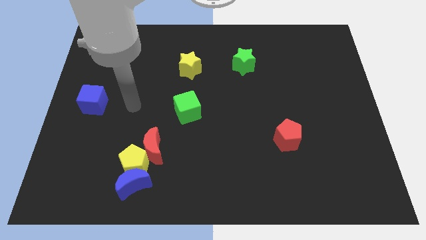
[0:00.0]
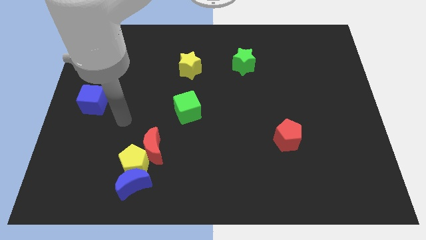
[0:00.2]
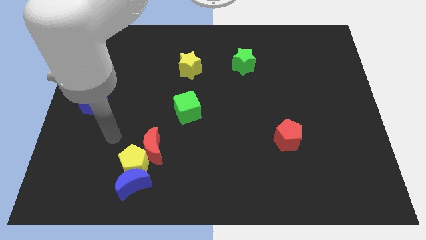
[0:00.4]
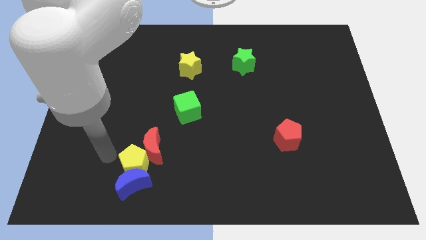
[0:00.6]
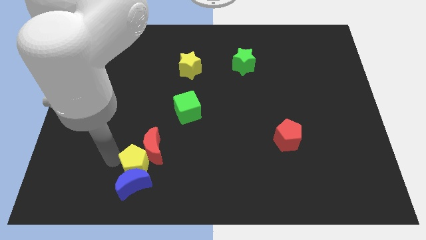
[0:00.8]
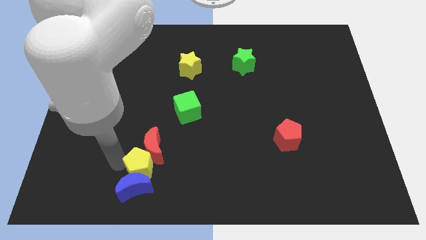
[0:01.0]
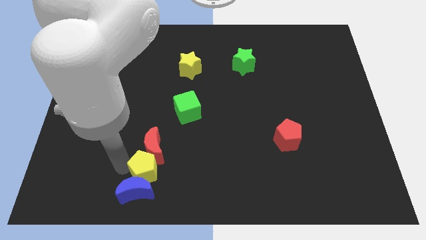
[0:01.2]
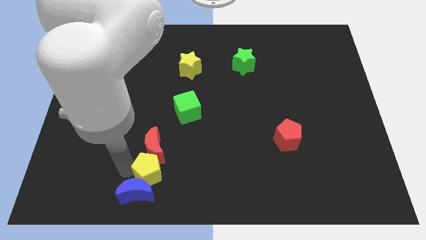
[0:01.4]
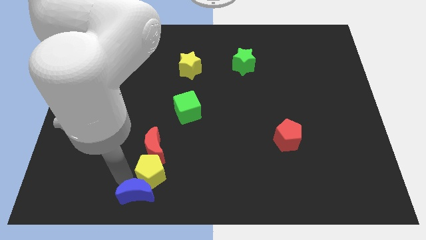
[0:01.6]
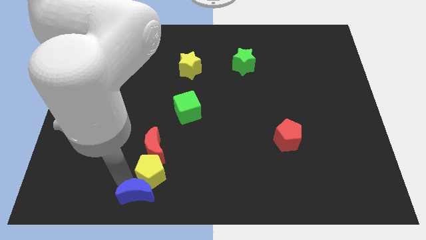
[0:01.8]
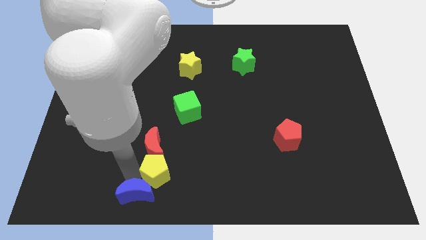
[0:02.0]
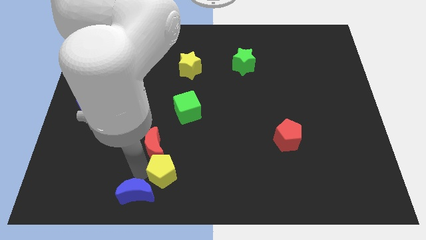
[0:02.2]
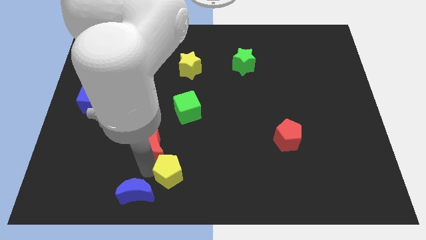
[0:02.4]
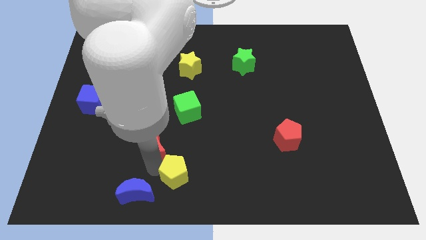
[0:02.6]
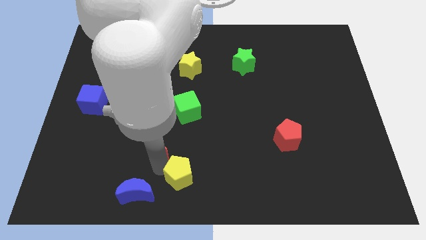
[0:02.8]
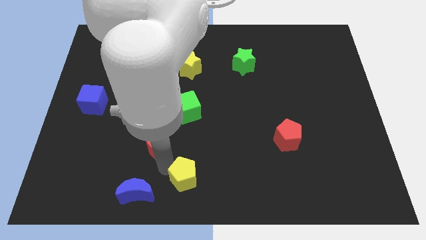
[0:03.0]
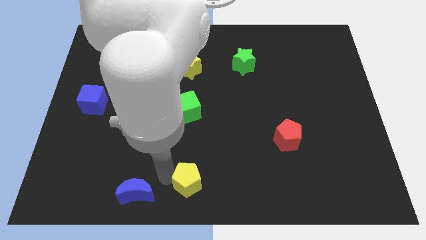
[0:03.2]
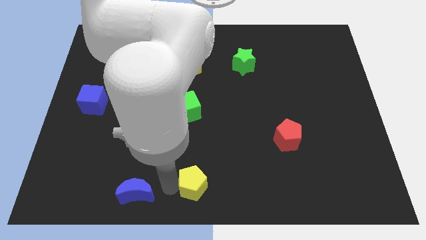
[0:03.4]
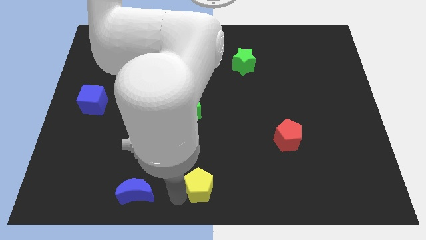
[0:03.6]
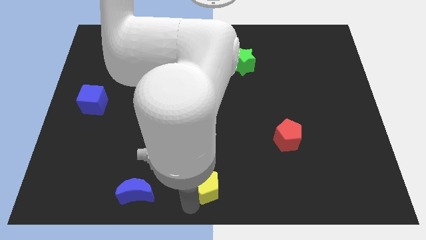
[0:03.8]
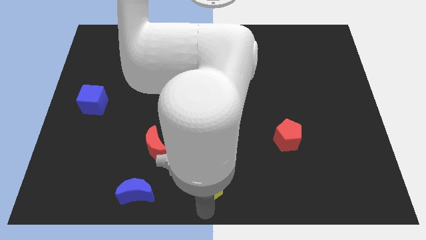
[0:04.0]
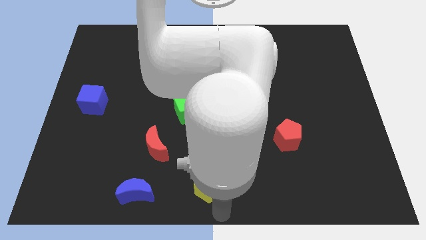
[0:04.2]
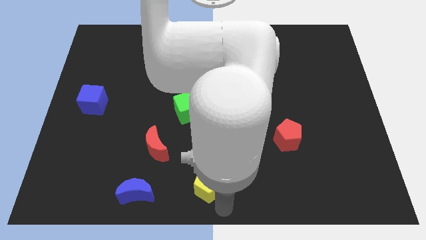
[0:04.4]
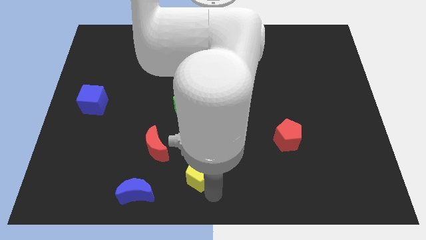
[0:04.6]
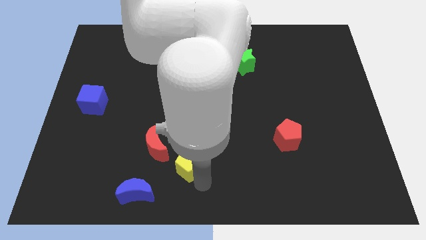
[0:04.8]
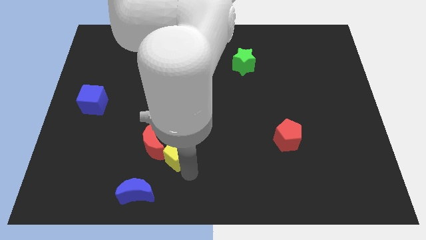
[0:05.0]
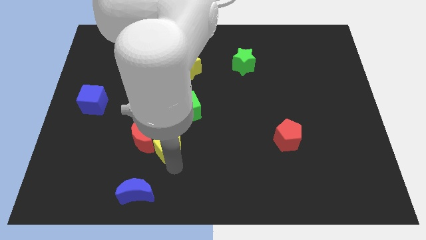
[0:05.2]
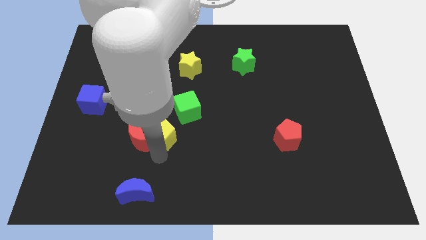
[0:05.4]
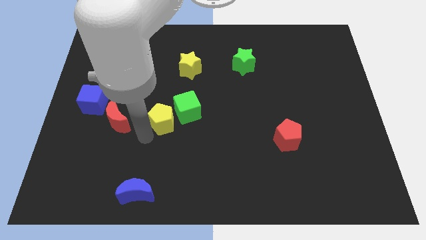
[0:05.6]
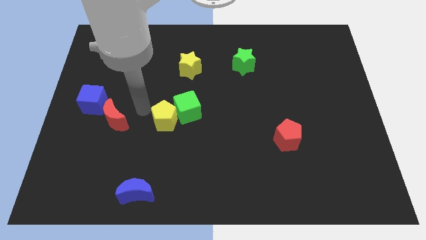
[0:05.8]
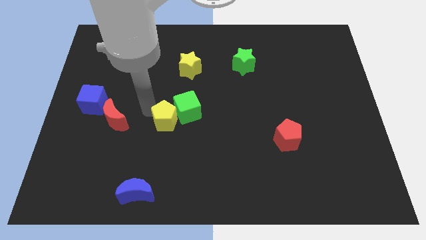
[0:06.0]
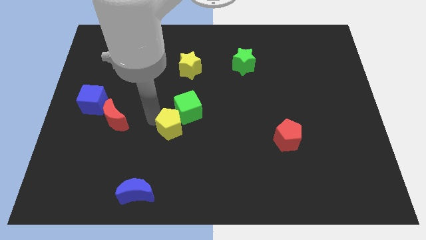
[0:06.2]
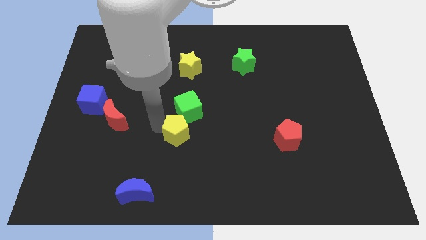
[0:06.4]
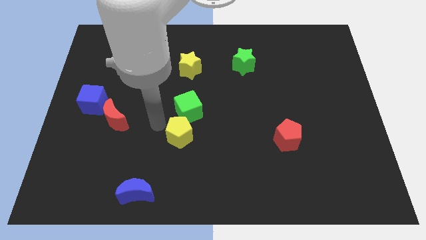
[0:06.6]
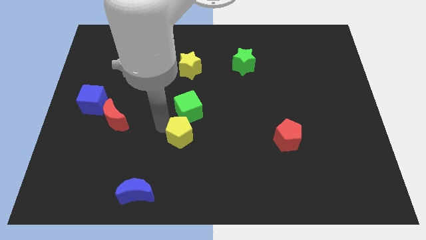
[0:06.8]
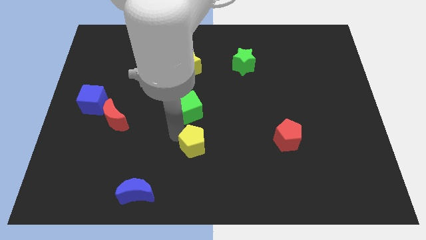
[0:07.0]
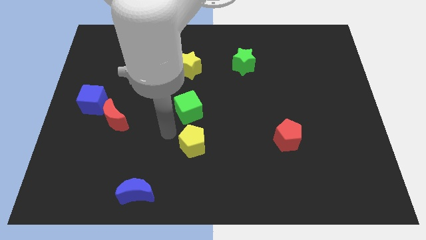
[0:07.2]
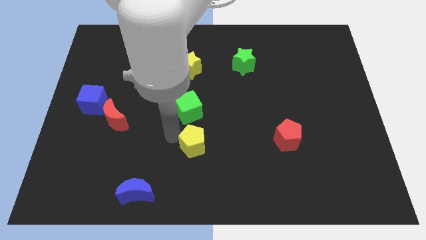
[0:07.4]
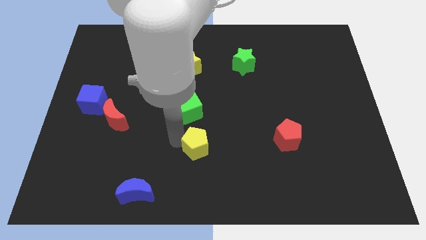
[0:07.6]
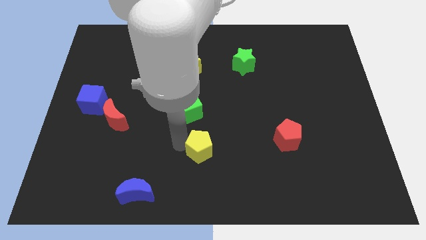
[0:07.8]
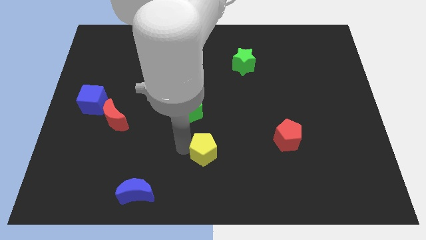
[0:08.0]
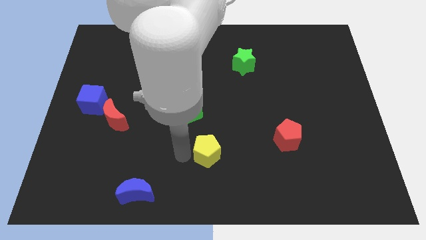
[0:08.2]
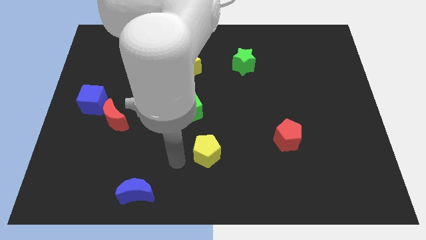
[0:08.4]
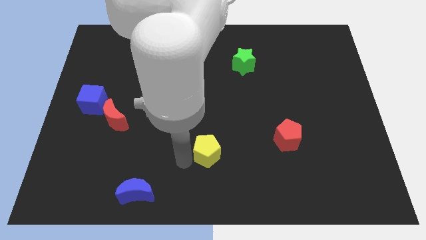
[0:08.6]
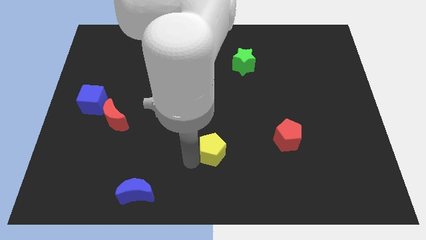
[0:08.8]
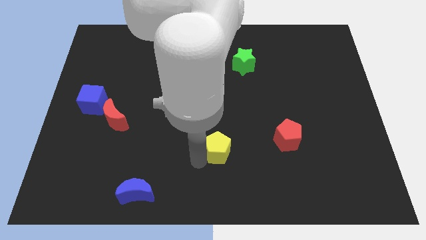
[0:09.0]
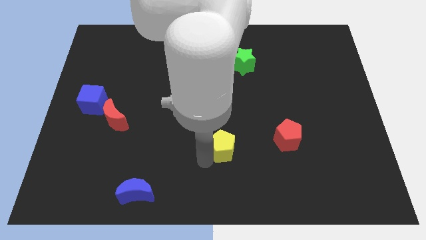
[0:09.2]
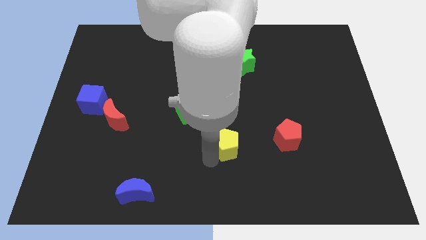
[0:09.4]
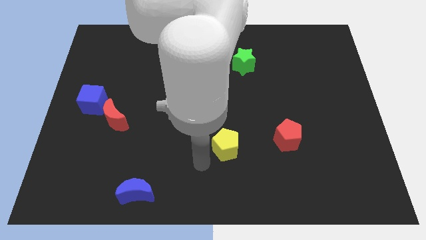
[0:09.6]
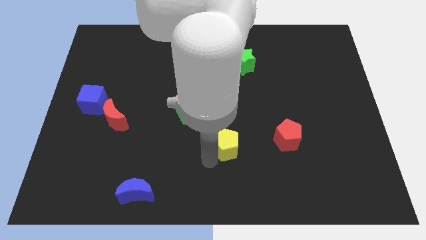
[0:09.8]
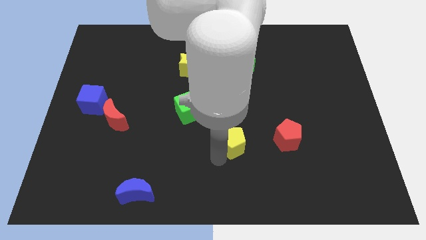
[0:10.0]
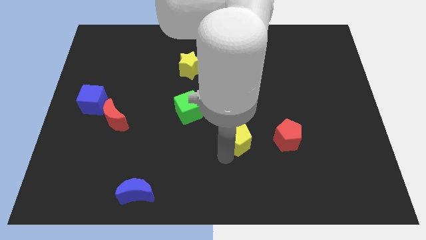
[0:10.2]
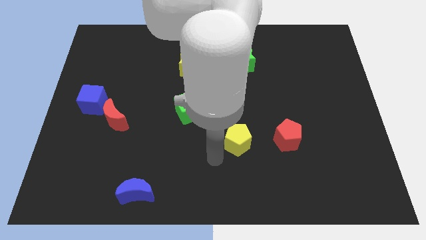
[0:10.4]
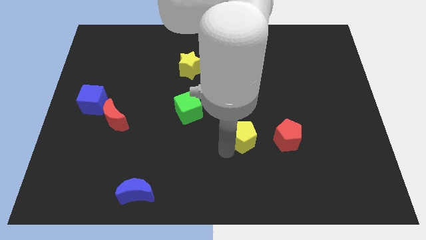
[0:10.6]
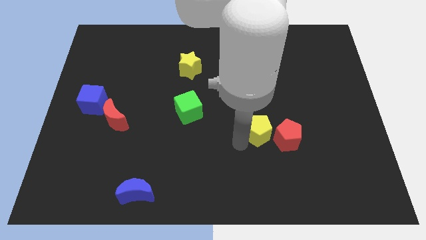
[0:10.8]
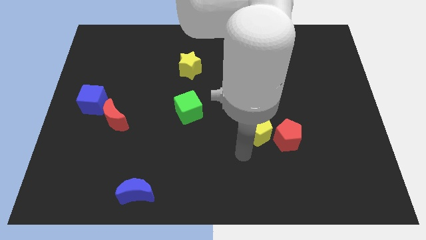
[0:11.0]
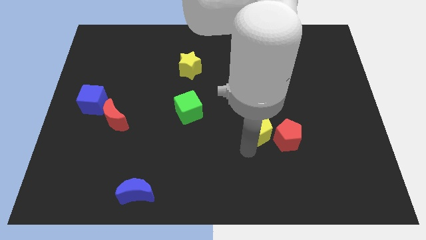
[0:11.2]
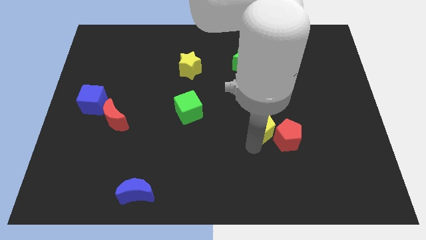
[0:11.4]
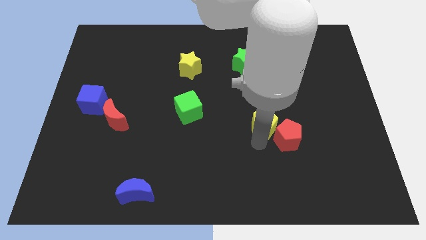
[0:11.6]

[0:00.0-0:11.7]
put the yellow pentagon to the top of the red pentagon

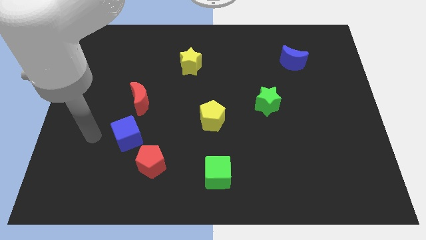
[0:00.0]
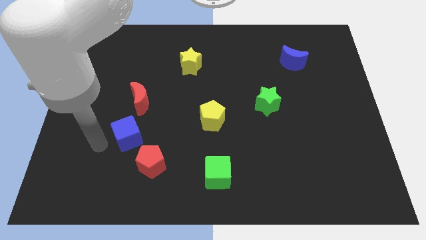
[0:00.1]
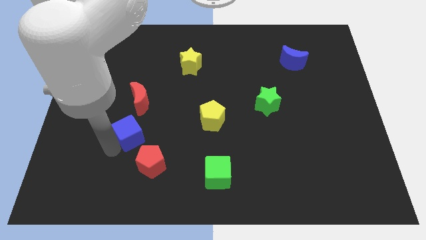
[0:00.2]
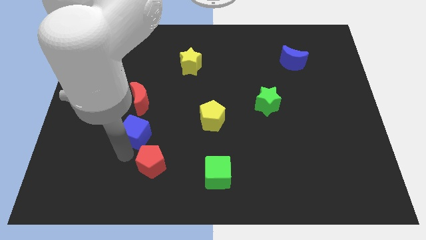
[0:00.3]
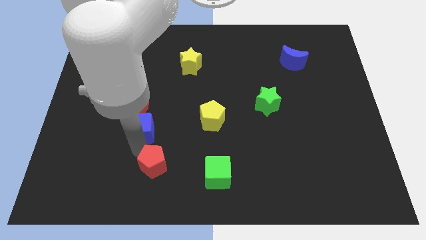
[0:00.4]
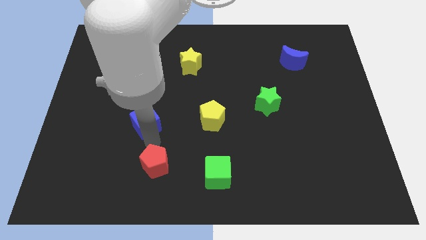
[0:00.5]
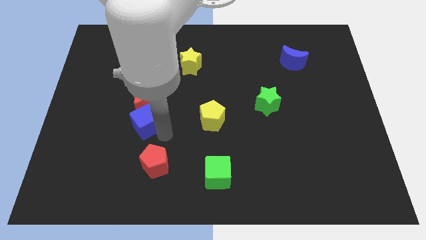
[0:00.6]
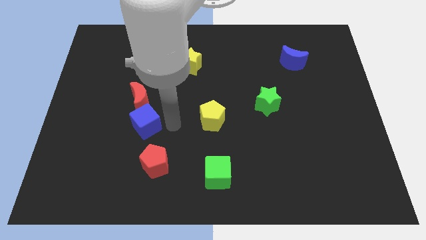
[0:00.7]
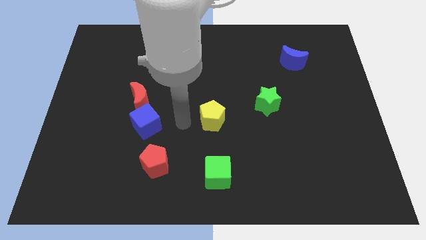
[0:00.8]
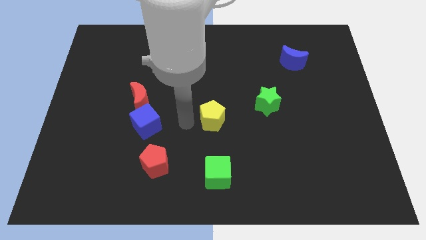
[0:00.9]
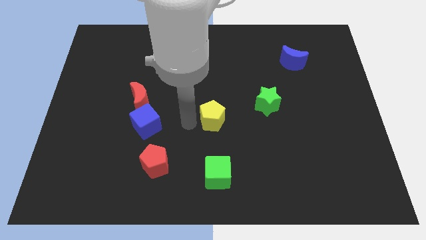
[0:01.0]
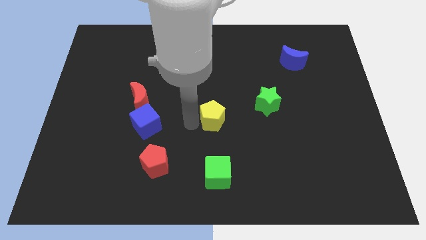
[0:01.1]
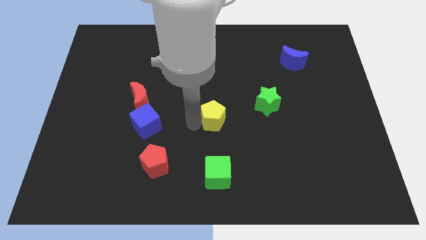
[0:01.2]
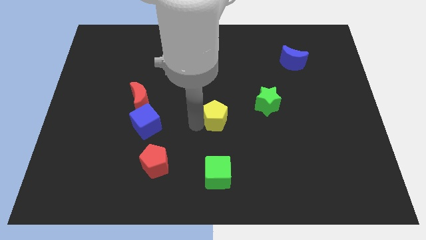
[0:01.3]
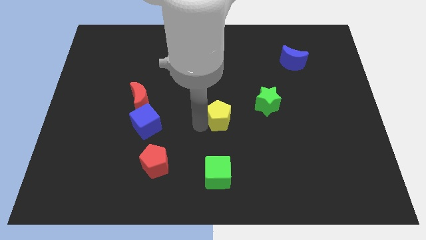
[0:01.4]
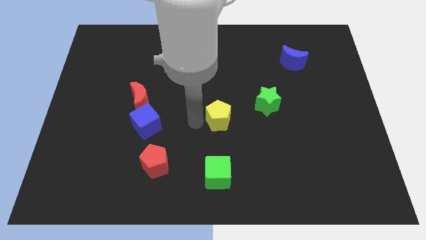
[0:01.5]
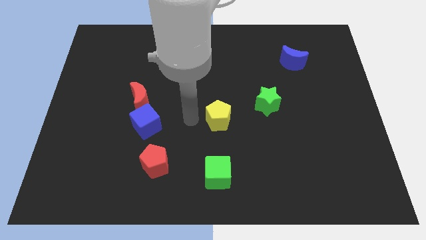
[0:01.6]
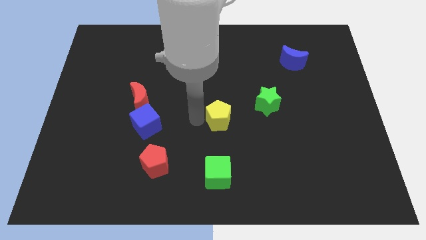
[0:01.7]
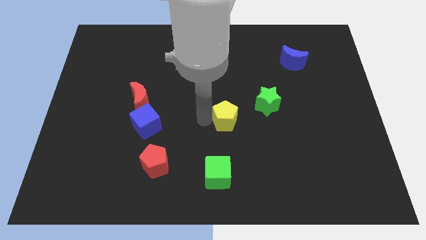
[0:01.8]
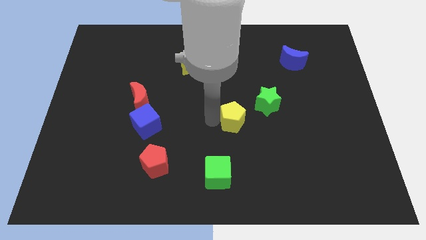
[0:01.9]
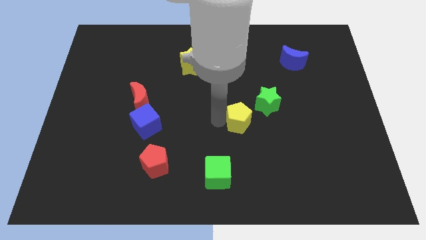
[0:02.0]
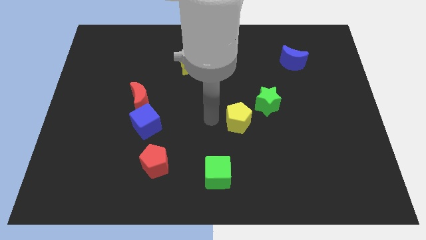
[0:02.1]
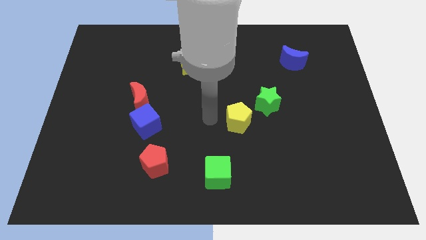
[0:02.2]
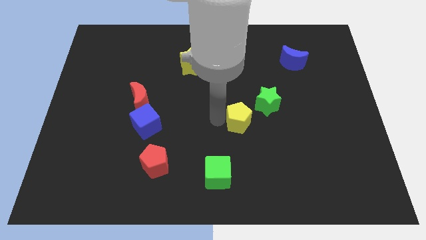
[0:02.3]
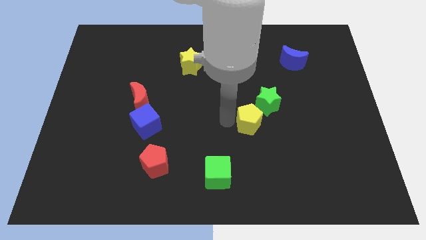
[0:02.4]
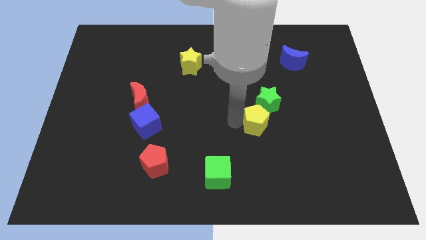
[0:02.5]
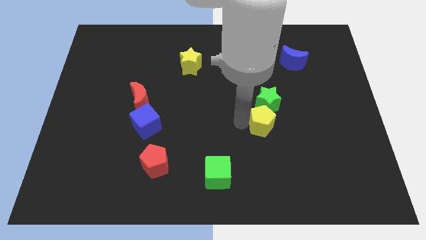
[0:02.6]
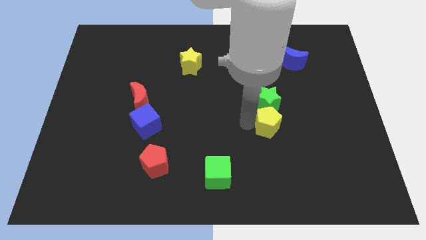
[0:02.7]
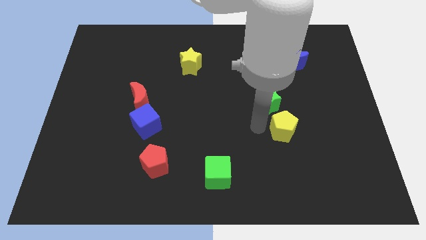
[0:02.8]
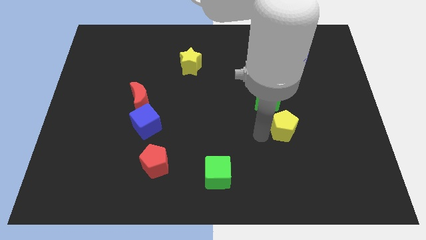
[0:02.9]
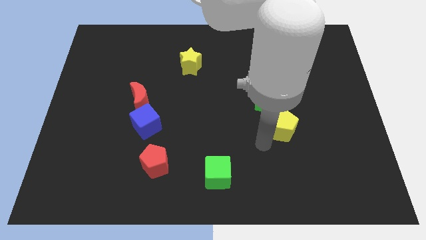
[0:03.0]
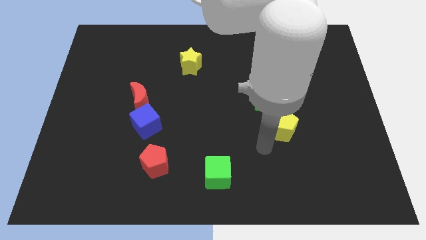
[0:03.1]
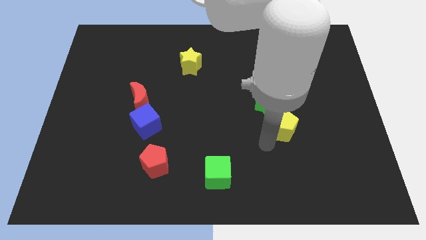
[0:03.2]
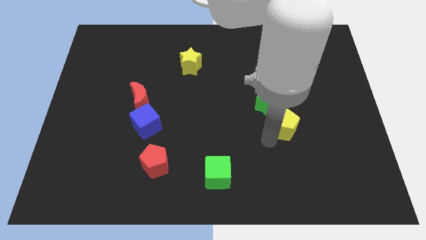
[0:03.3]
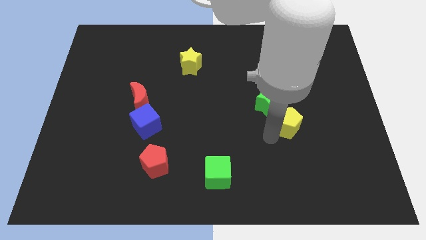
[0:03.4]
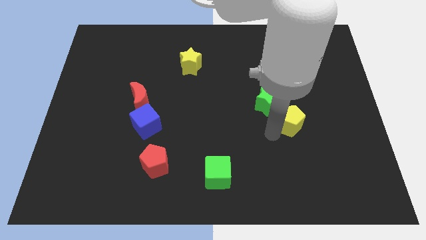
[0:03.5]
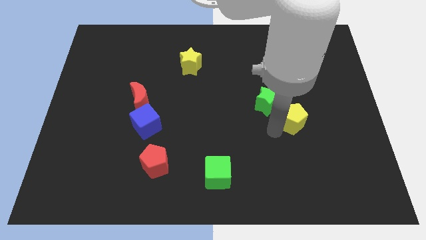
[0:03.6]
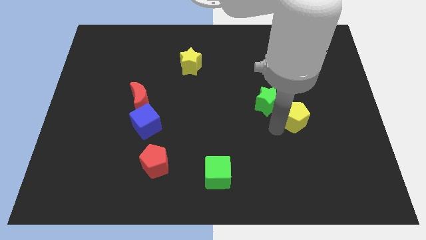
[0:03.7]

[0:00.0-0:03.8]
slide the yellow pentagon right of the green star
